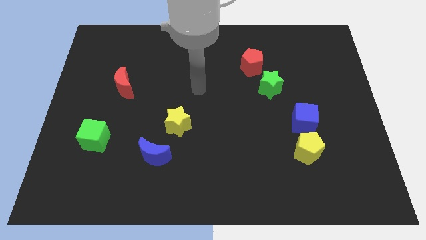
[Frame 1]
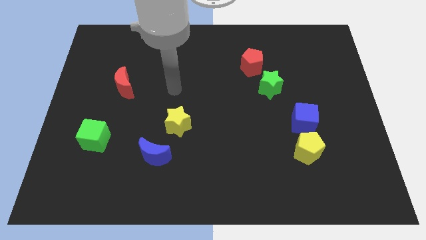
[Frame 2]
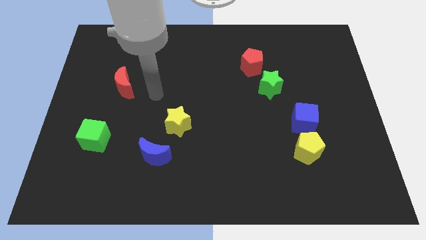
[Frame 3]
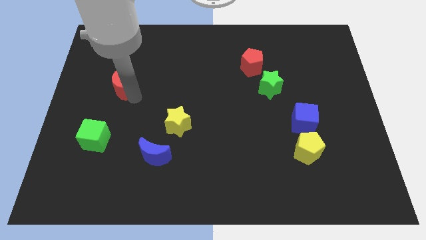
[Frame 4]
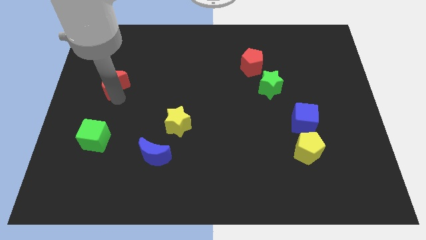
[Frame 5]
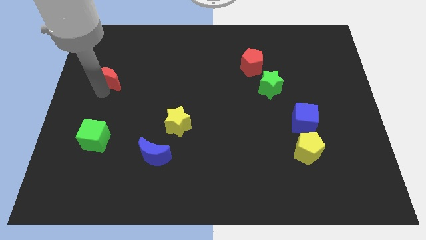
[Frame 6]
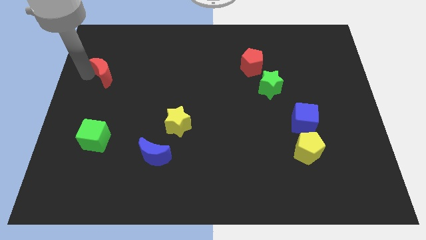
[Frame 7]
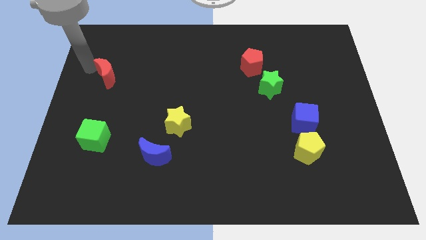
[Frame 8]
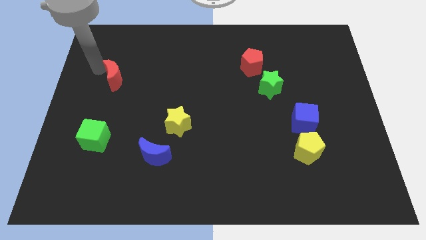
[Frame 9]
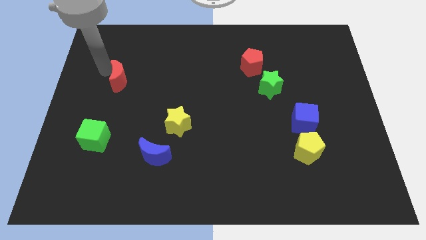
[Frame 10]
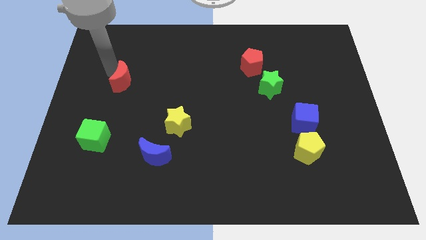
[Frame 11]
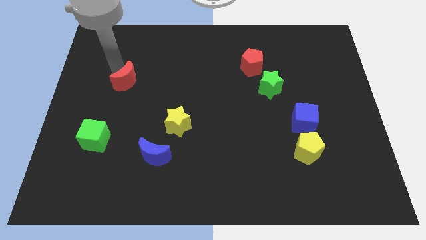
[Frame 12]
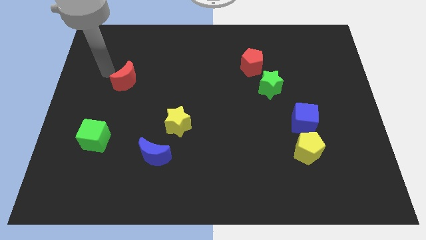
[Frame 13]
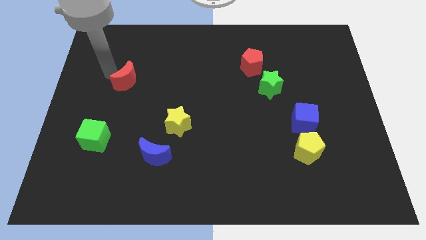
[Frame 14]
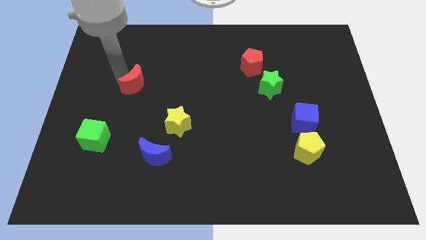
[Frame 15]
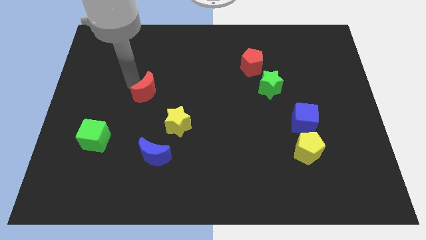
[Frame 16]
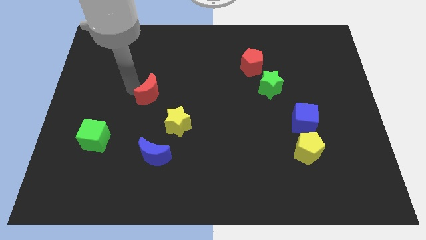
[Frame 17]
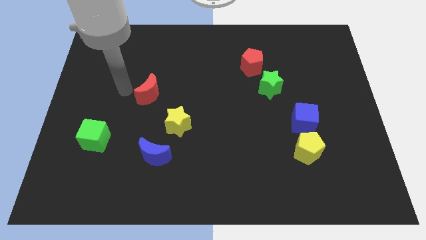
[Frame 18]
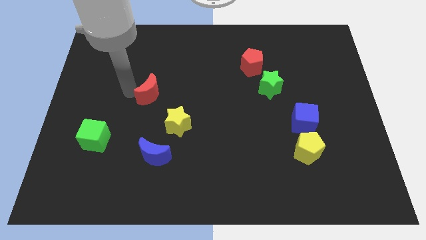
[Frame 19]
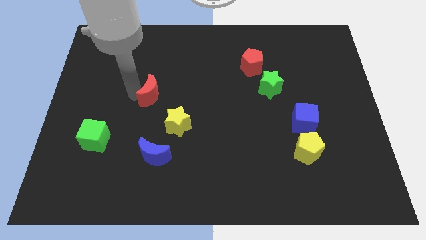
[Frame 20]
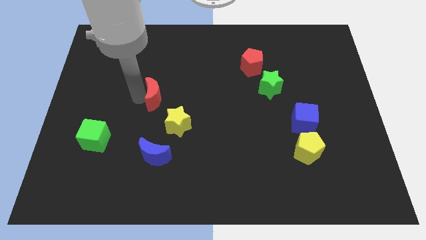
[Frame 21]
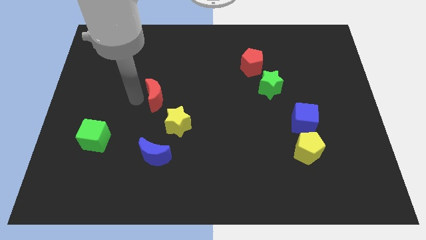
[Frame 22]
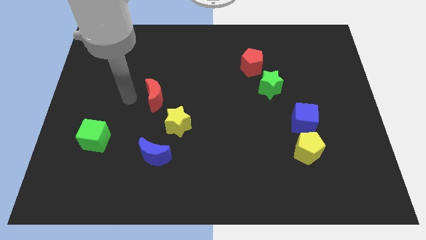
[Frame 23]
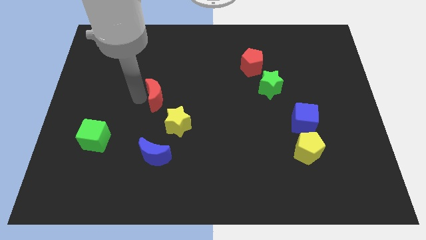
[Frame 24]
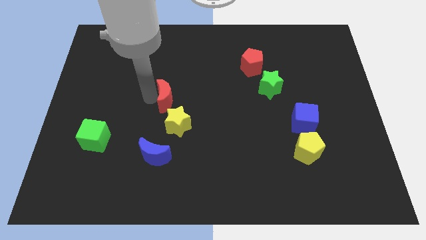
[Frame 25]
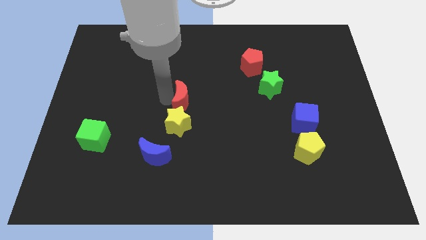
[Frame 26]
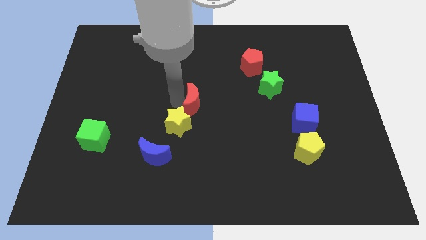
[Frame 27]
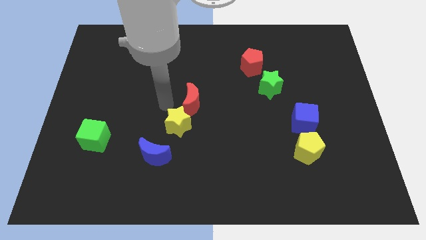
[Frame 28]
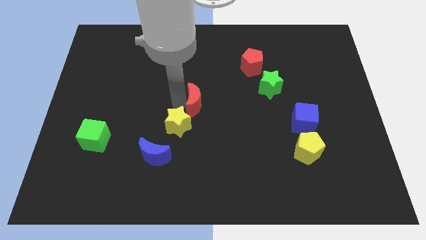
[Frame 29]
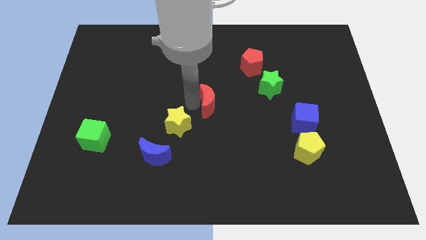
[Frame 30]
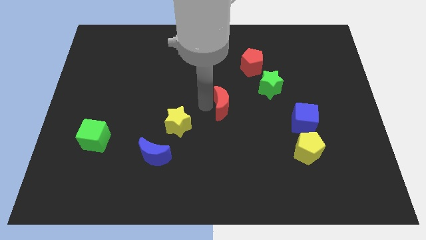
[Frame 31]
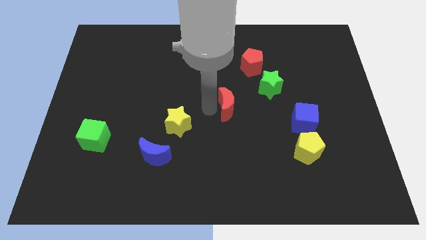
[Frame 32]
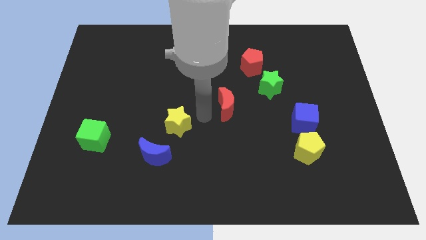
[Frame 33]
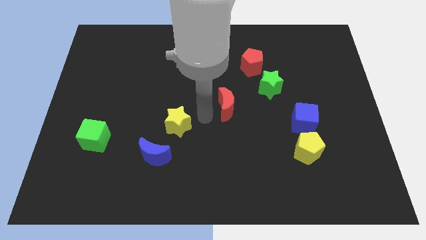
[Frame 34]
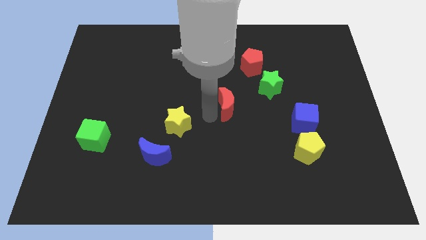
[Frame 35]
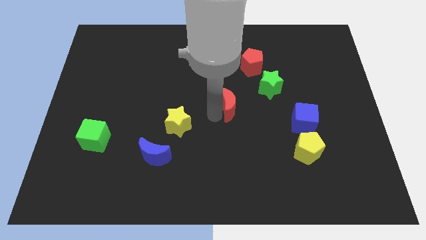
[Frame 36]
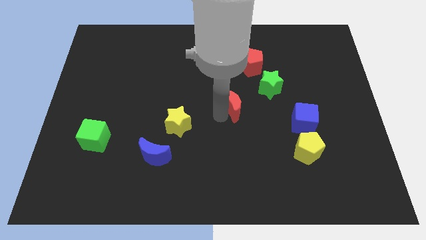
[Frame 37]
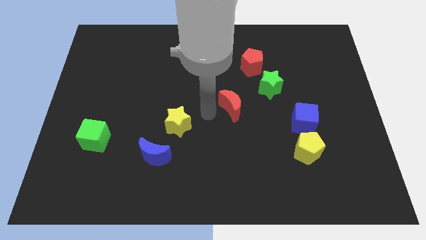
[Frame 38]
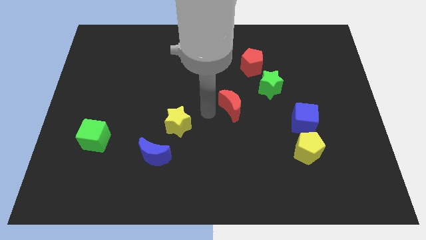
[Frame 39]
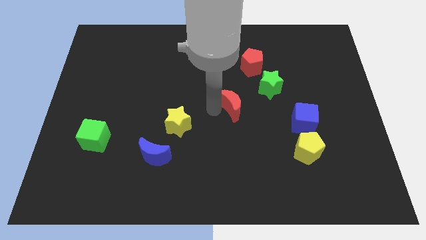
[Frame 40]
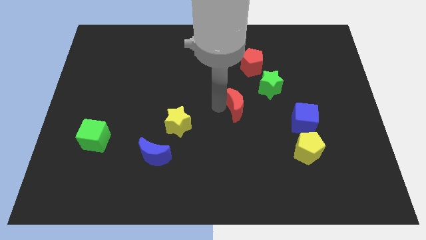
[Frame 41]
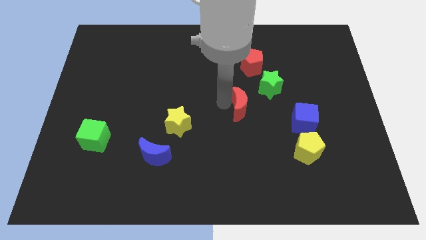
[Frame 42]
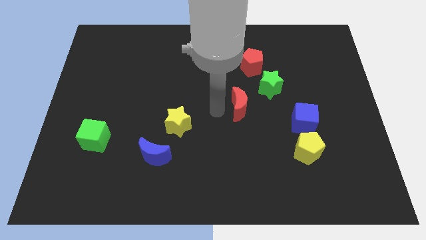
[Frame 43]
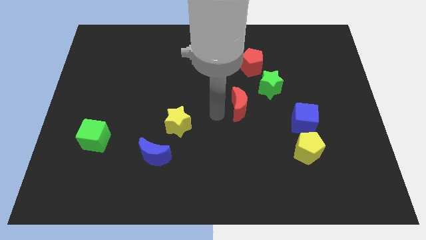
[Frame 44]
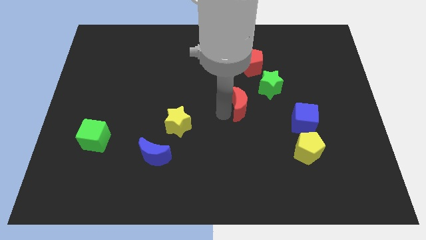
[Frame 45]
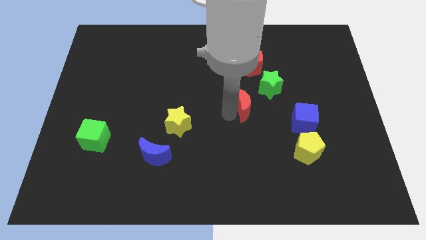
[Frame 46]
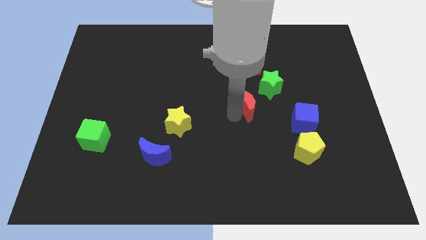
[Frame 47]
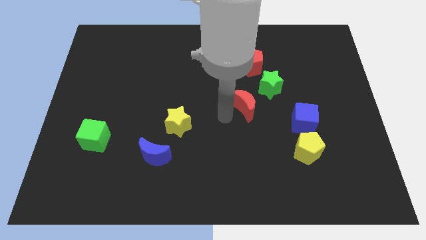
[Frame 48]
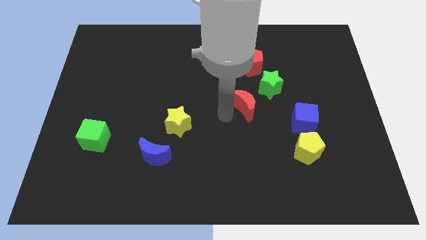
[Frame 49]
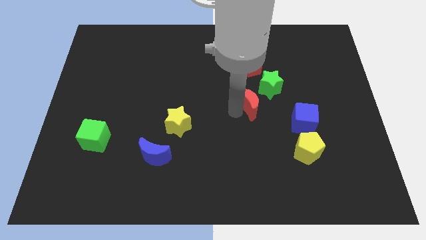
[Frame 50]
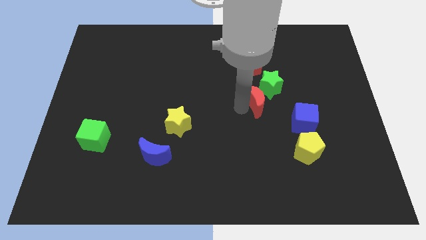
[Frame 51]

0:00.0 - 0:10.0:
slide the red moon diagonally up and to the left of the blue cube

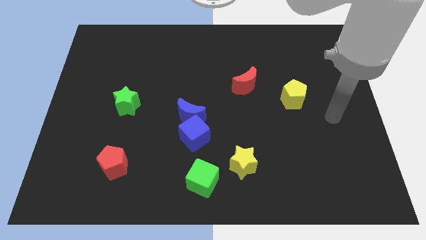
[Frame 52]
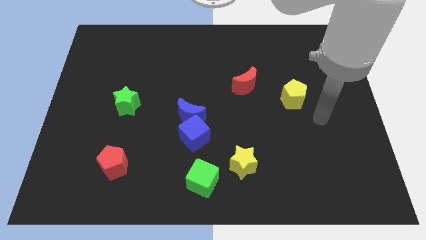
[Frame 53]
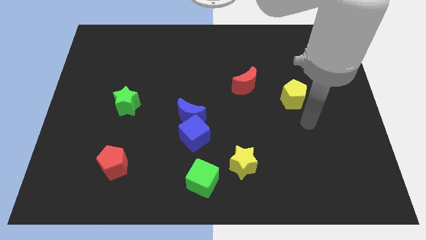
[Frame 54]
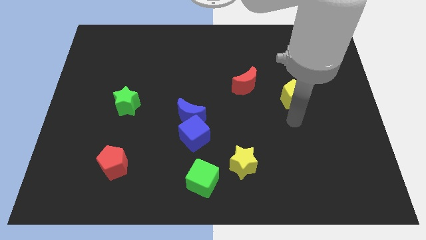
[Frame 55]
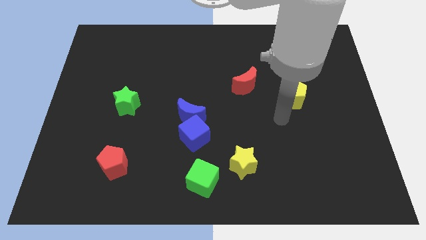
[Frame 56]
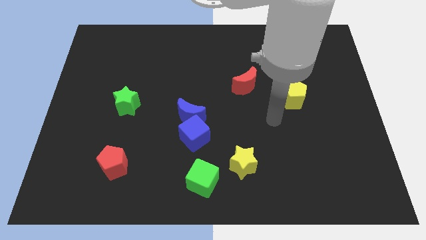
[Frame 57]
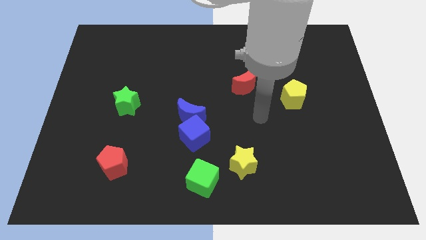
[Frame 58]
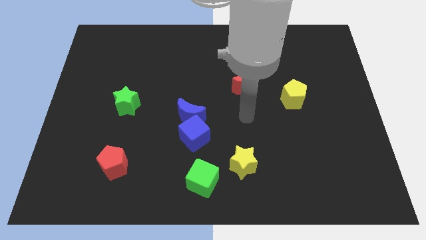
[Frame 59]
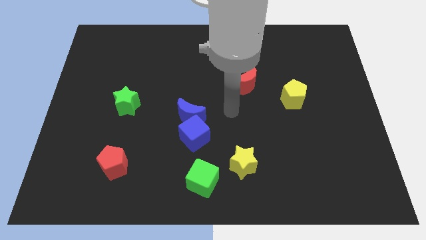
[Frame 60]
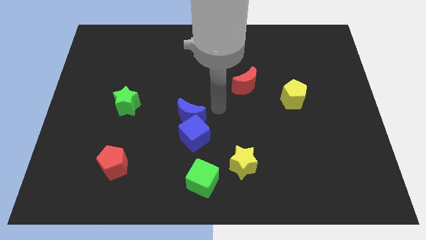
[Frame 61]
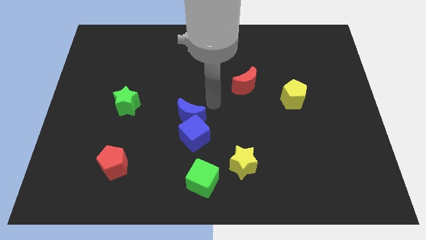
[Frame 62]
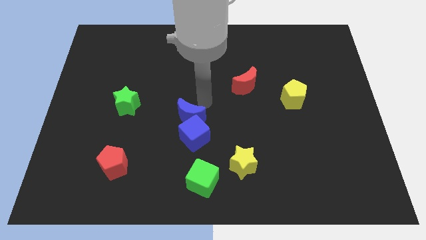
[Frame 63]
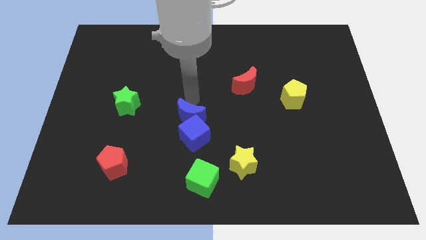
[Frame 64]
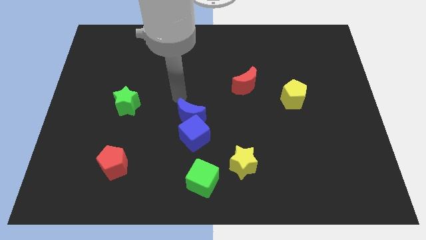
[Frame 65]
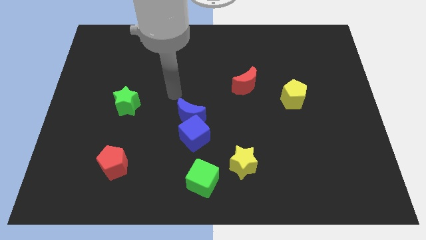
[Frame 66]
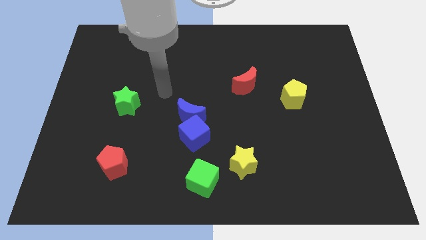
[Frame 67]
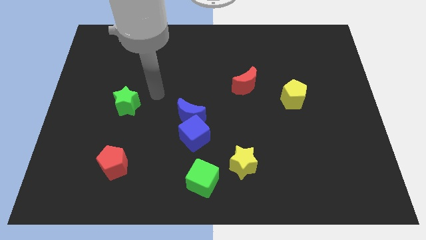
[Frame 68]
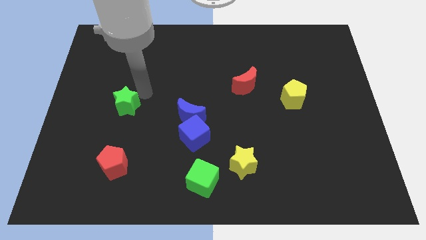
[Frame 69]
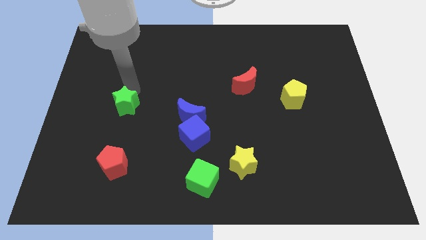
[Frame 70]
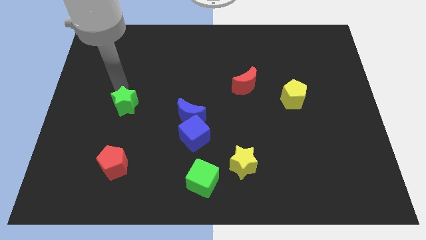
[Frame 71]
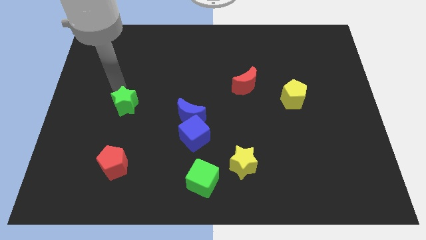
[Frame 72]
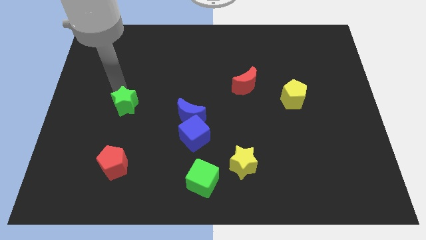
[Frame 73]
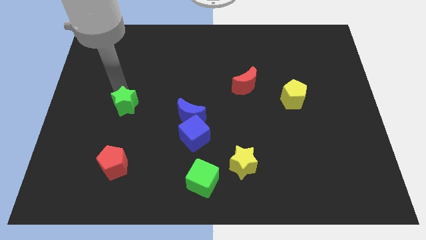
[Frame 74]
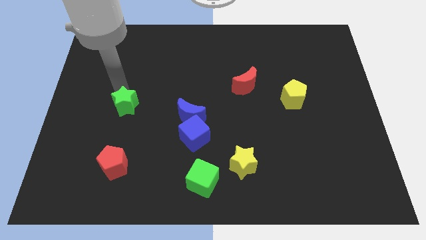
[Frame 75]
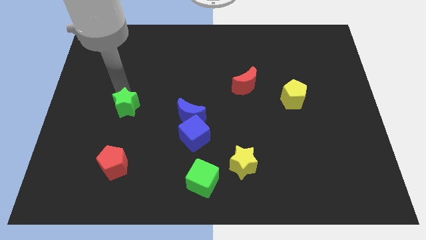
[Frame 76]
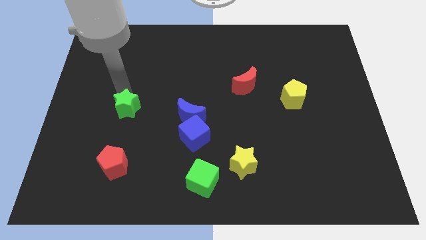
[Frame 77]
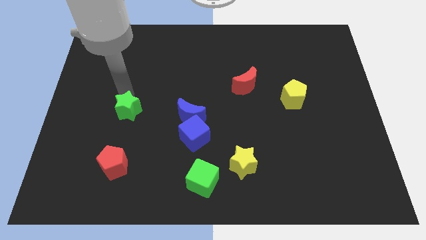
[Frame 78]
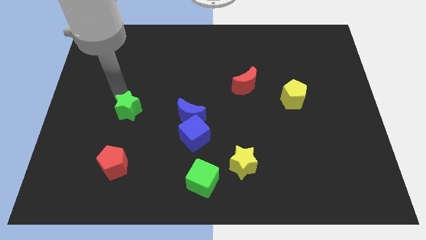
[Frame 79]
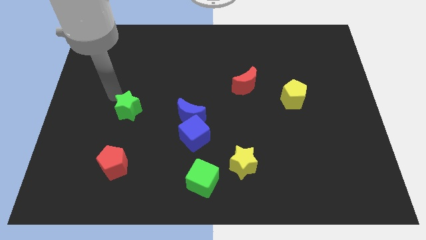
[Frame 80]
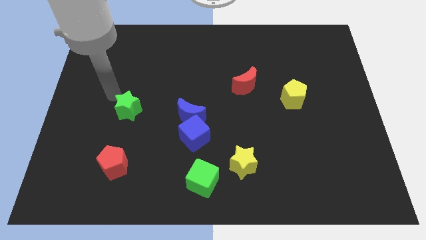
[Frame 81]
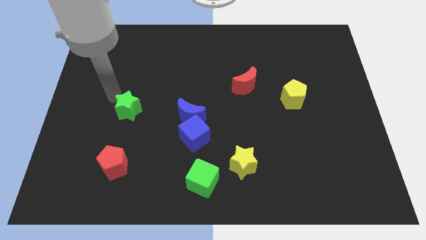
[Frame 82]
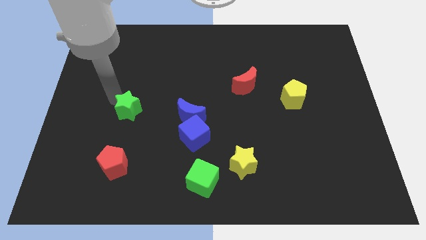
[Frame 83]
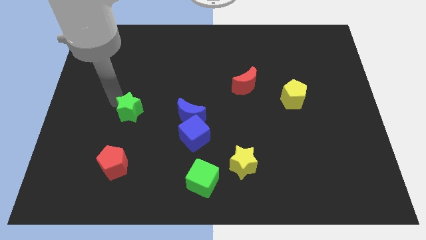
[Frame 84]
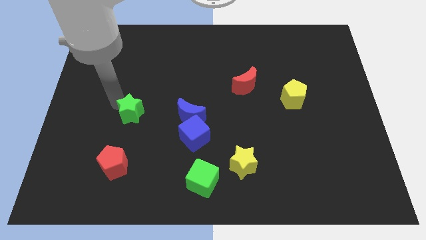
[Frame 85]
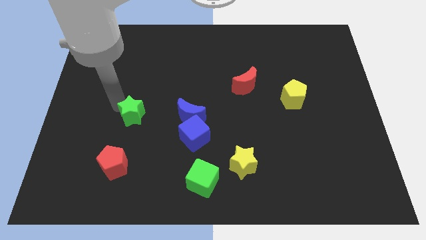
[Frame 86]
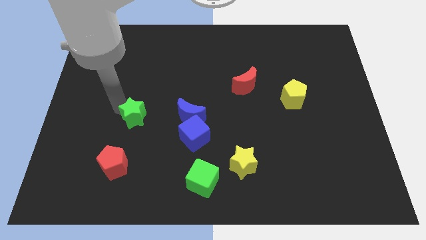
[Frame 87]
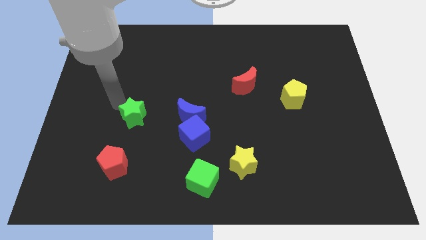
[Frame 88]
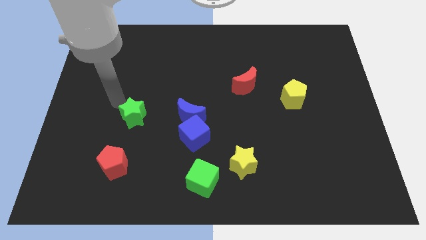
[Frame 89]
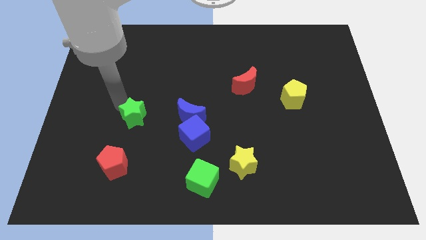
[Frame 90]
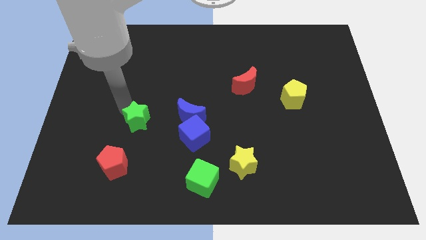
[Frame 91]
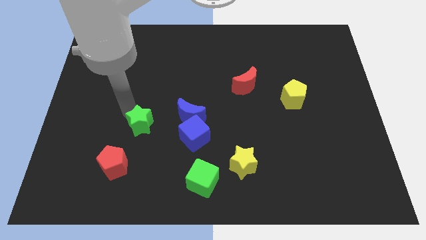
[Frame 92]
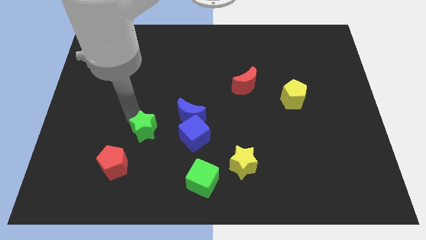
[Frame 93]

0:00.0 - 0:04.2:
move the green star to the bottom left of the blue moon
